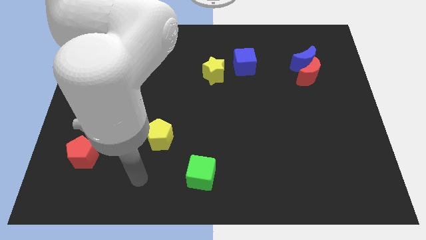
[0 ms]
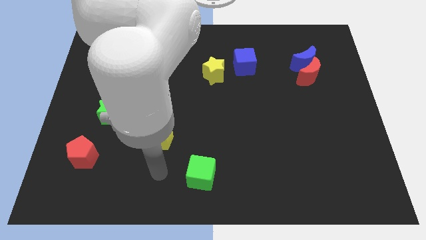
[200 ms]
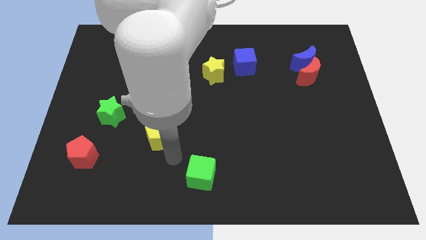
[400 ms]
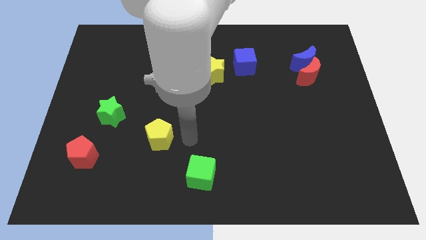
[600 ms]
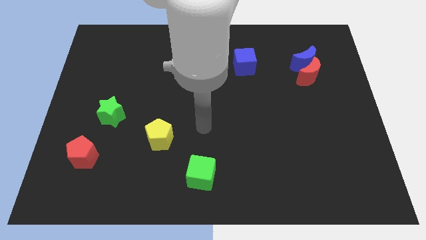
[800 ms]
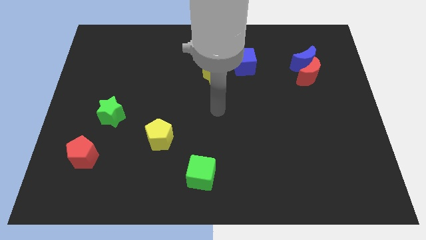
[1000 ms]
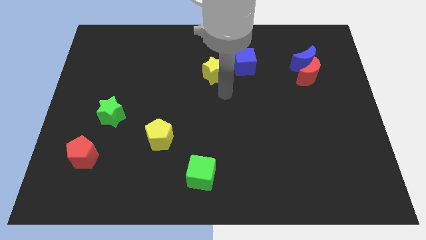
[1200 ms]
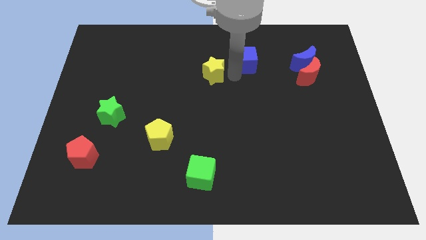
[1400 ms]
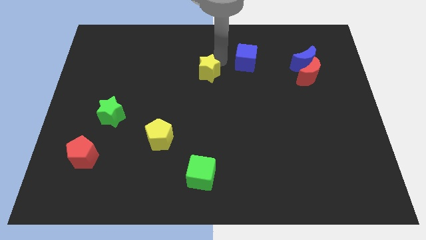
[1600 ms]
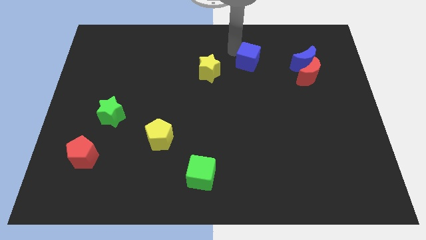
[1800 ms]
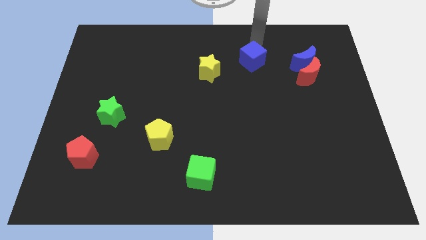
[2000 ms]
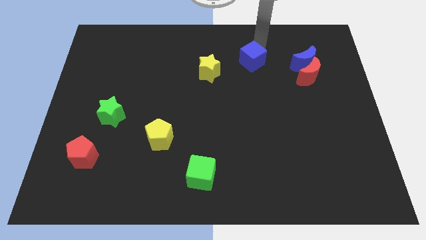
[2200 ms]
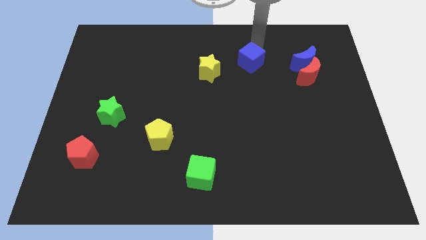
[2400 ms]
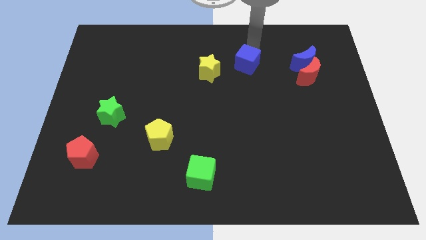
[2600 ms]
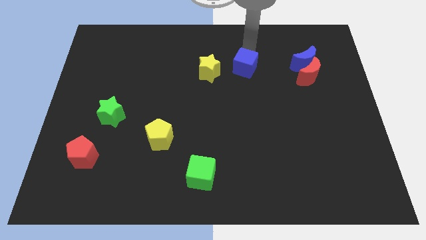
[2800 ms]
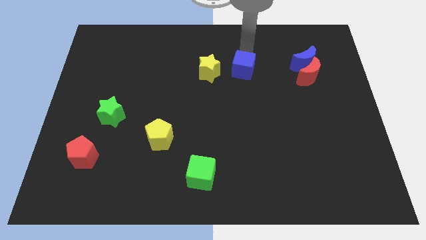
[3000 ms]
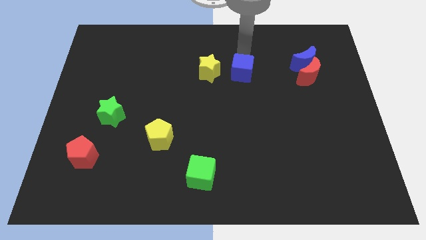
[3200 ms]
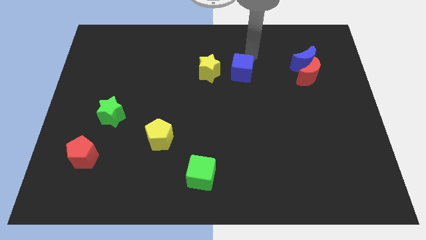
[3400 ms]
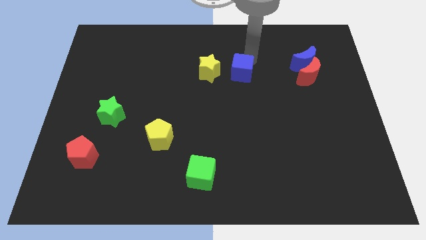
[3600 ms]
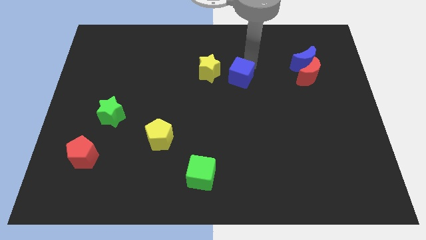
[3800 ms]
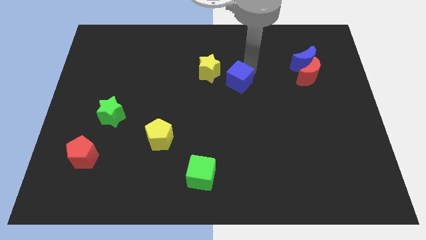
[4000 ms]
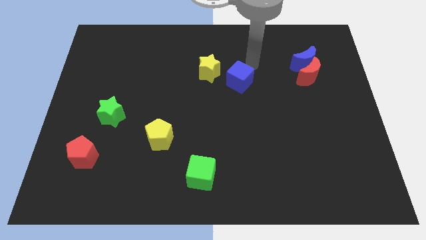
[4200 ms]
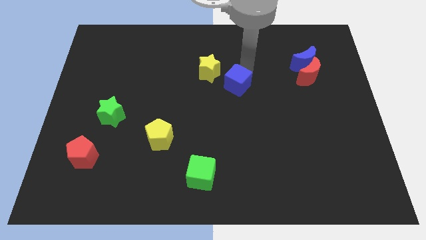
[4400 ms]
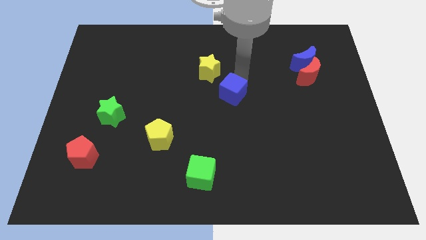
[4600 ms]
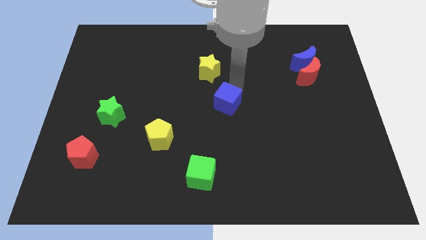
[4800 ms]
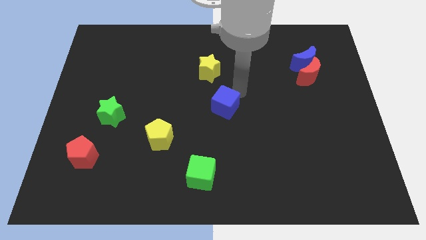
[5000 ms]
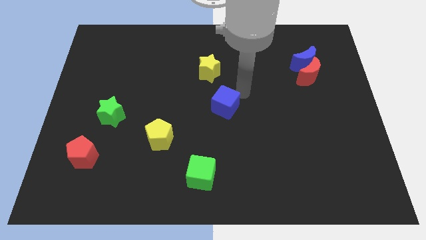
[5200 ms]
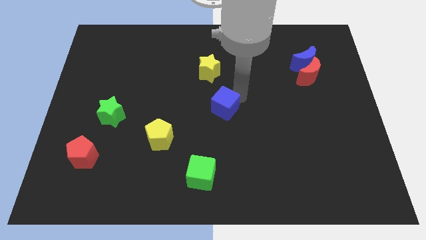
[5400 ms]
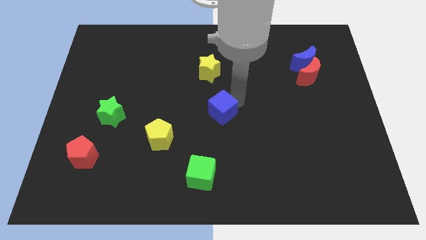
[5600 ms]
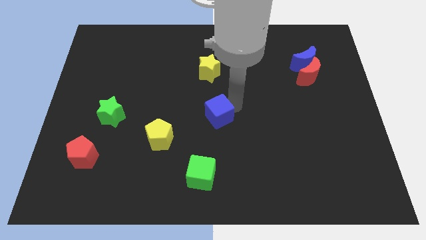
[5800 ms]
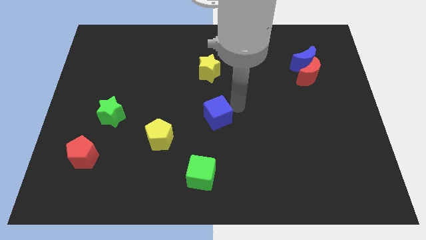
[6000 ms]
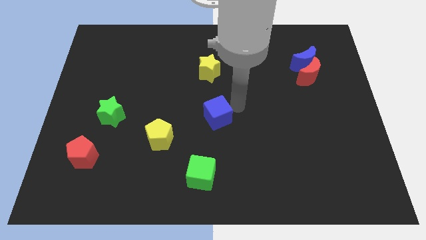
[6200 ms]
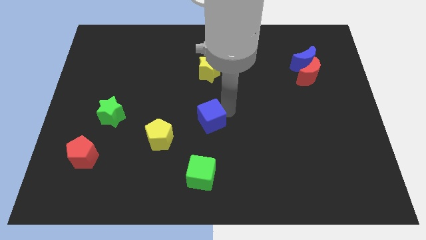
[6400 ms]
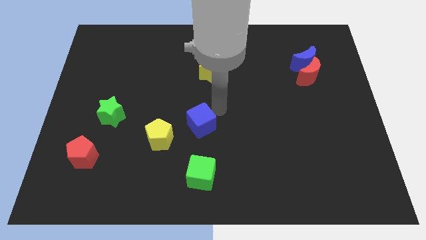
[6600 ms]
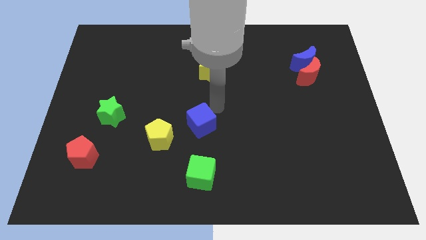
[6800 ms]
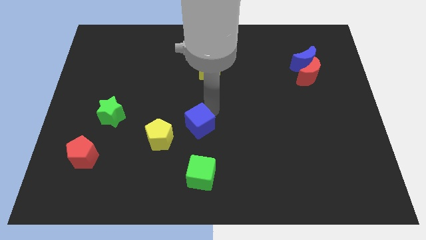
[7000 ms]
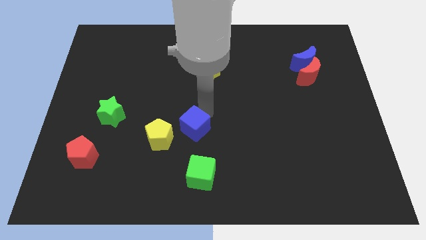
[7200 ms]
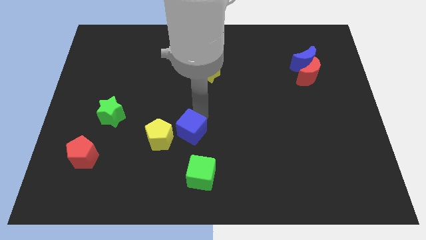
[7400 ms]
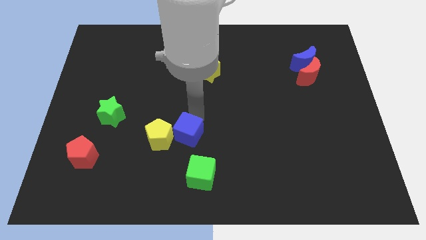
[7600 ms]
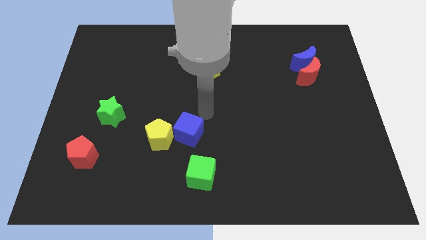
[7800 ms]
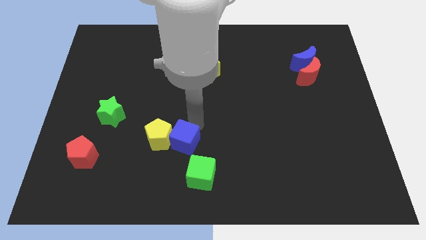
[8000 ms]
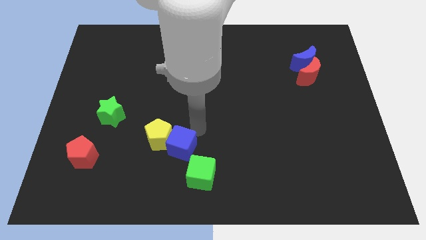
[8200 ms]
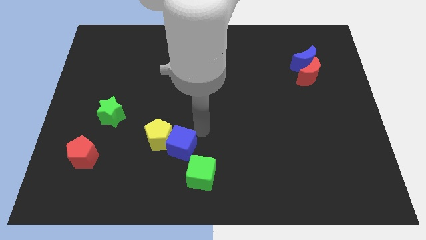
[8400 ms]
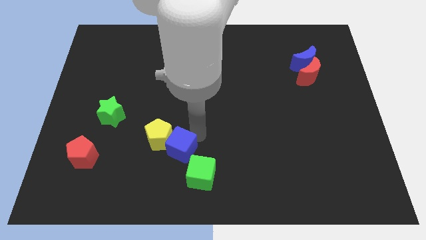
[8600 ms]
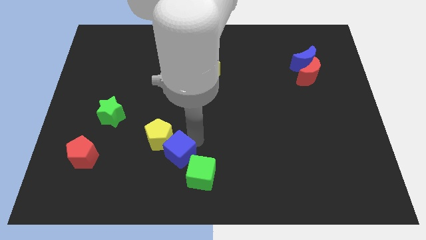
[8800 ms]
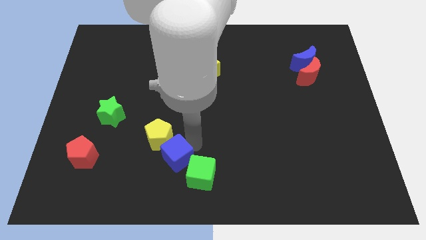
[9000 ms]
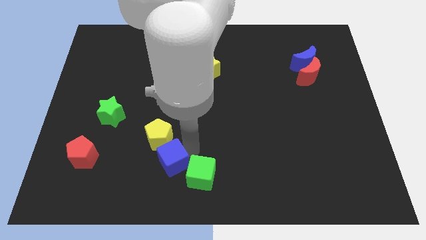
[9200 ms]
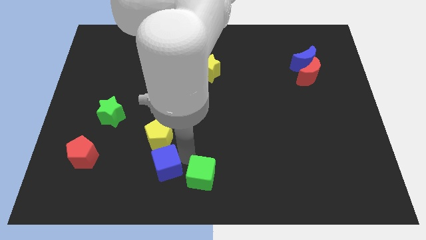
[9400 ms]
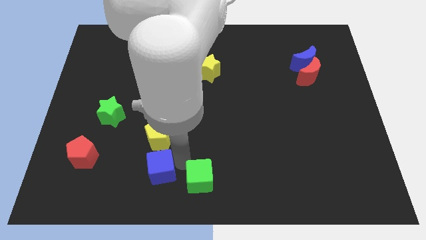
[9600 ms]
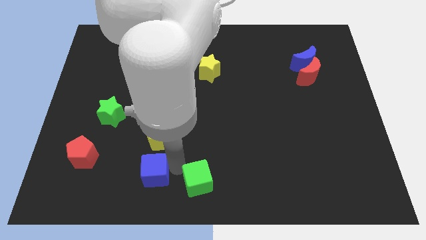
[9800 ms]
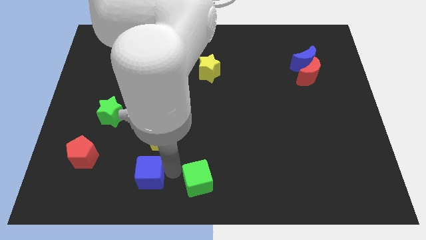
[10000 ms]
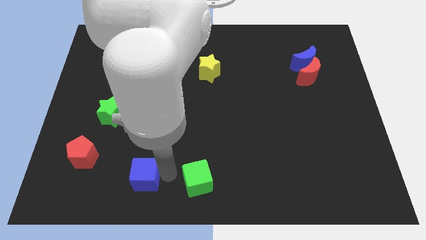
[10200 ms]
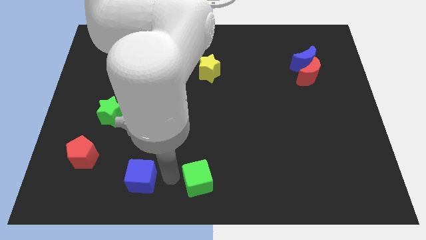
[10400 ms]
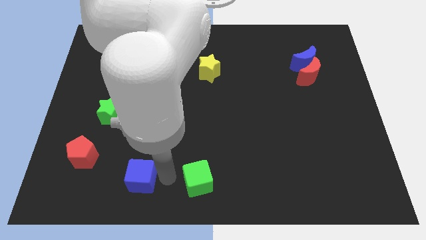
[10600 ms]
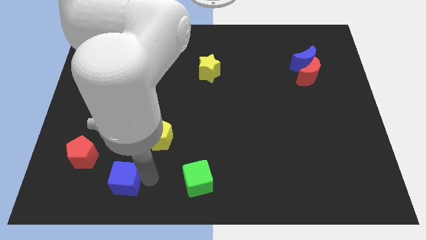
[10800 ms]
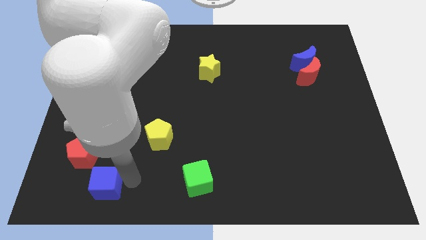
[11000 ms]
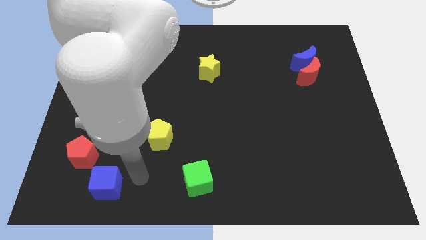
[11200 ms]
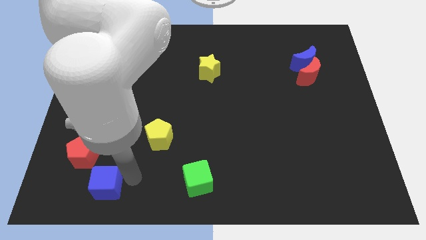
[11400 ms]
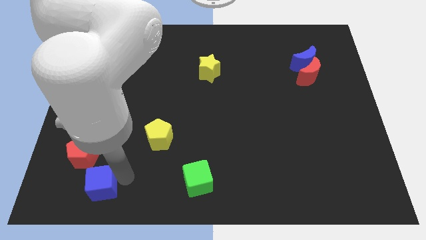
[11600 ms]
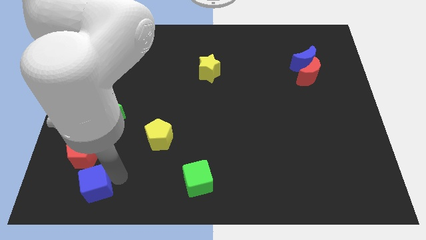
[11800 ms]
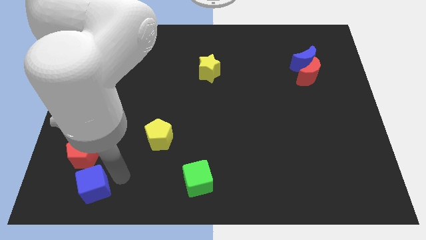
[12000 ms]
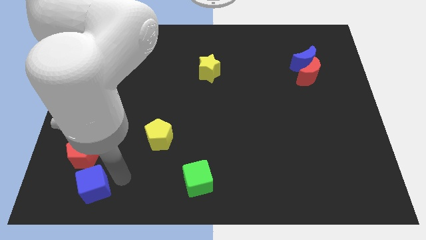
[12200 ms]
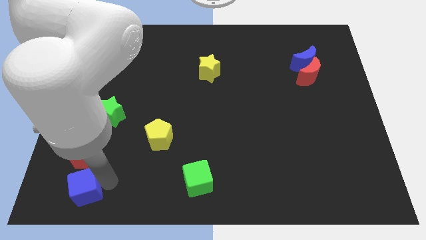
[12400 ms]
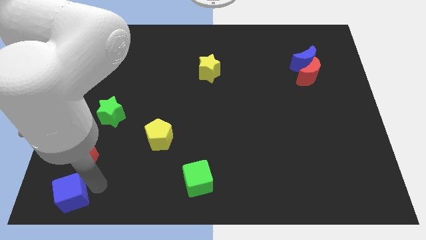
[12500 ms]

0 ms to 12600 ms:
put the blue cube to the bottom left of the board

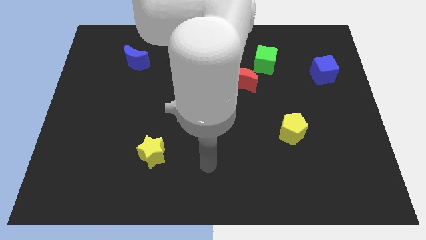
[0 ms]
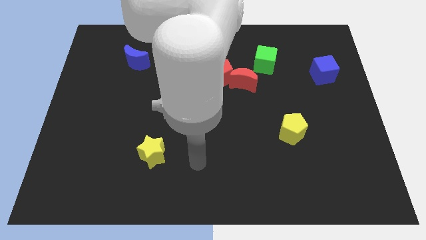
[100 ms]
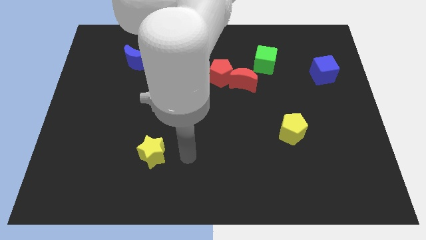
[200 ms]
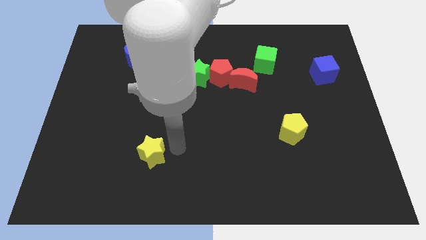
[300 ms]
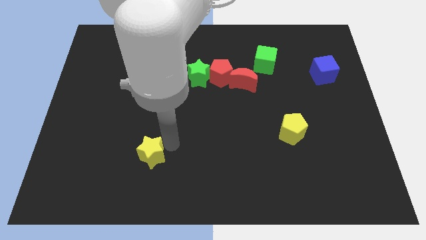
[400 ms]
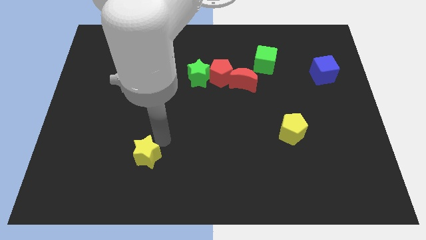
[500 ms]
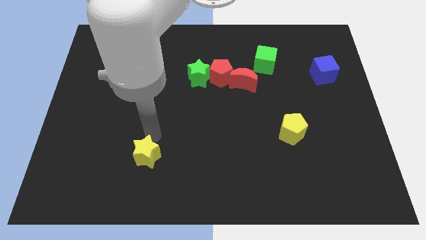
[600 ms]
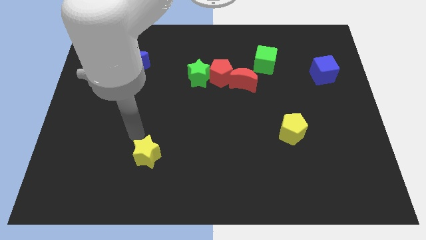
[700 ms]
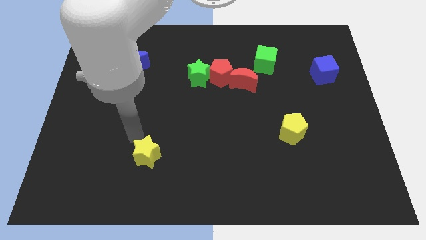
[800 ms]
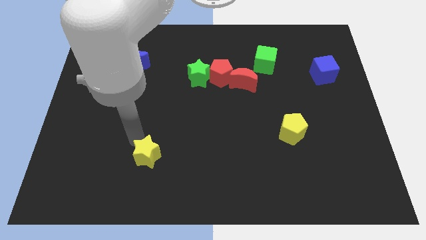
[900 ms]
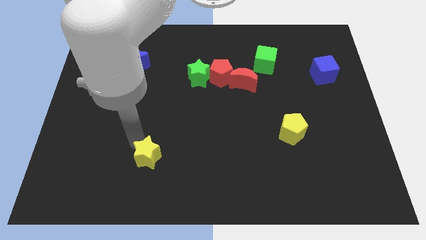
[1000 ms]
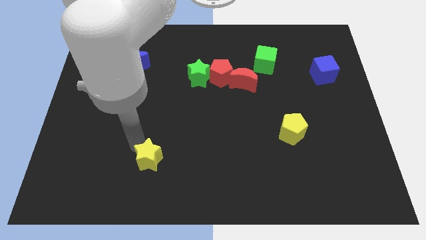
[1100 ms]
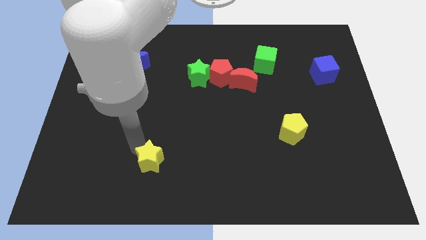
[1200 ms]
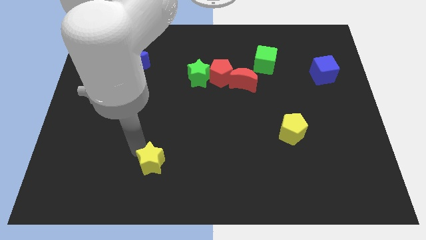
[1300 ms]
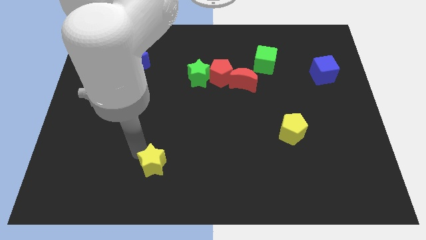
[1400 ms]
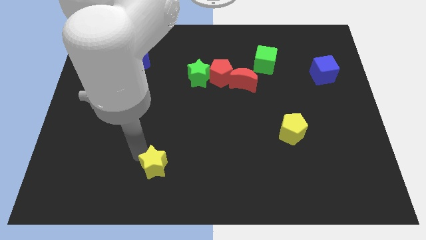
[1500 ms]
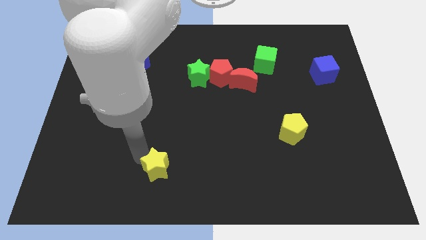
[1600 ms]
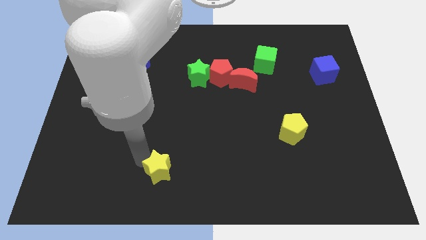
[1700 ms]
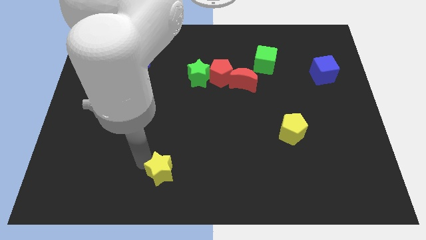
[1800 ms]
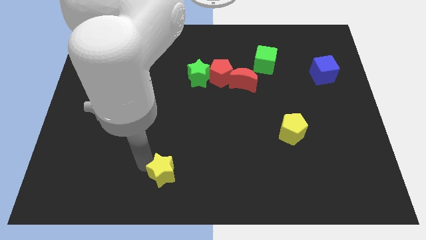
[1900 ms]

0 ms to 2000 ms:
put the yellow star to the bottom side
